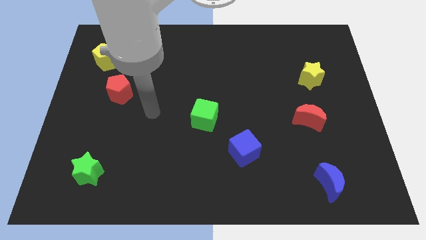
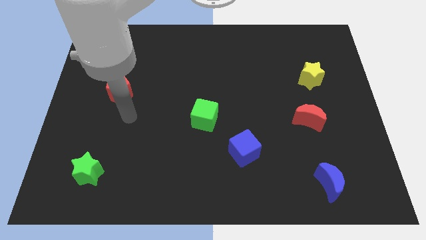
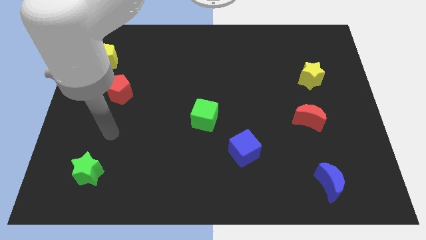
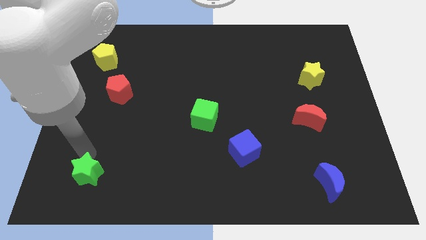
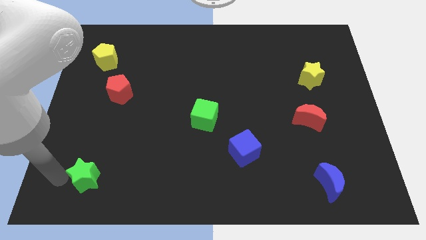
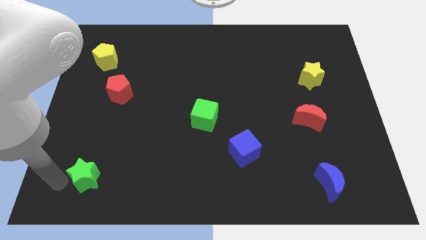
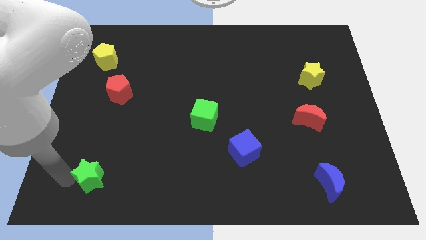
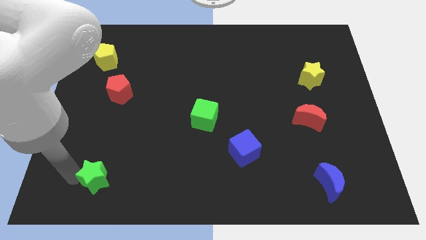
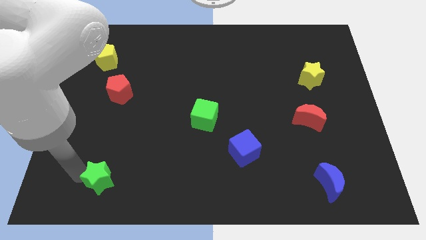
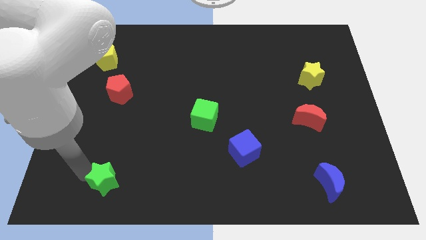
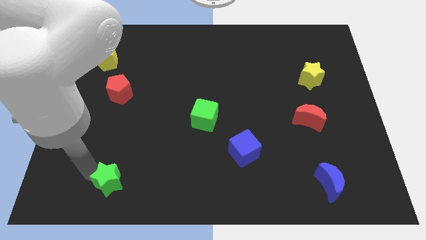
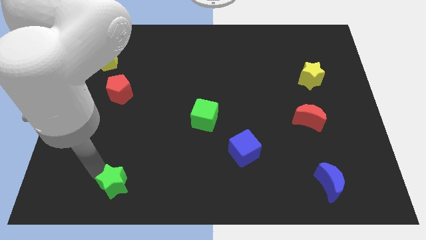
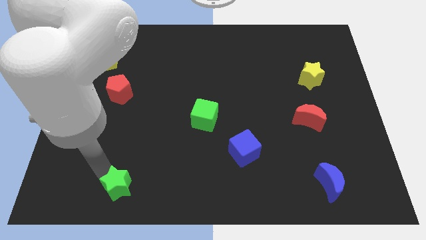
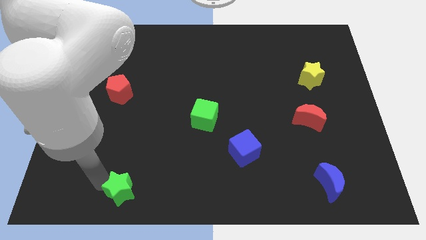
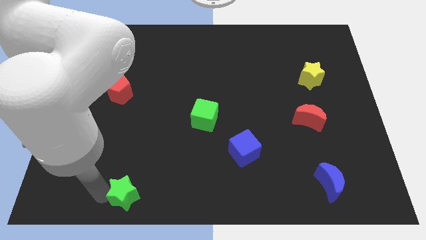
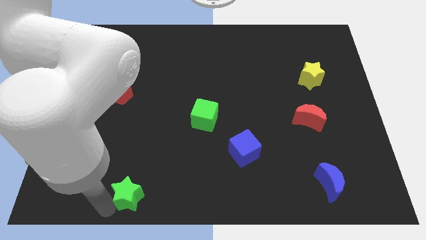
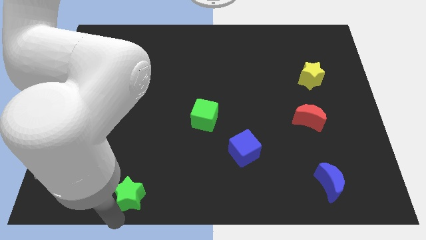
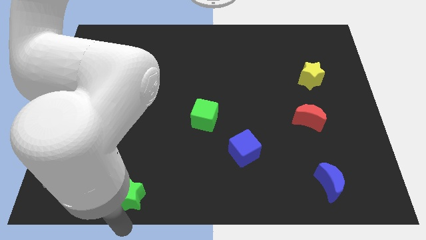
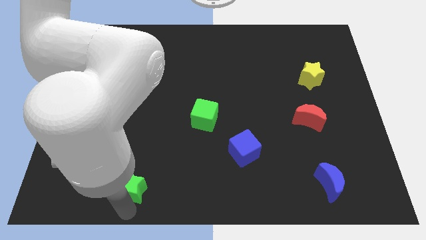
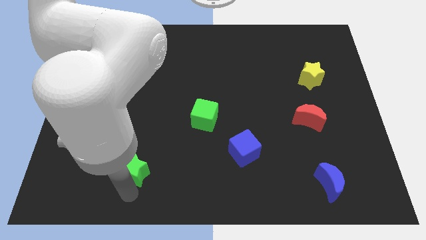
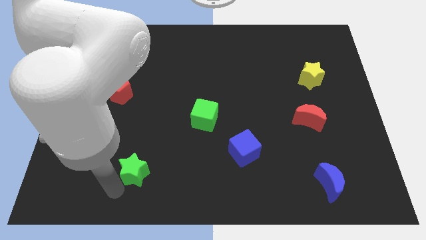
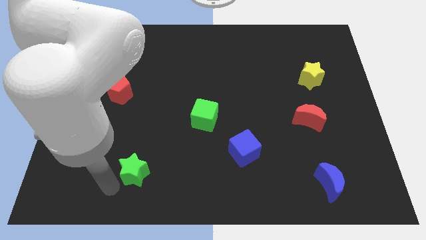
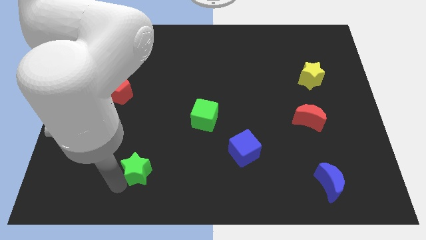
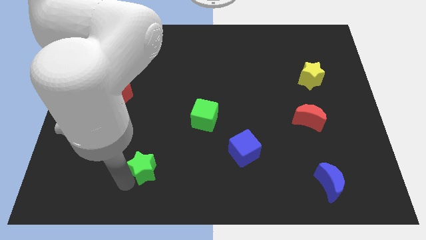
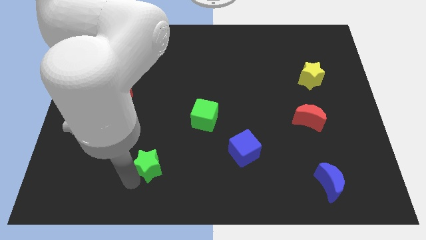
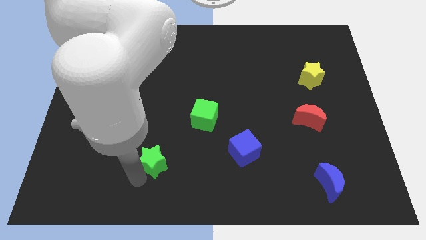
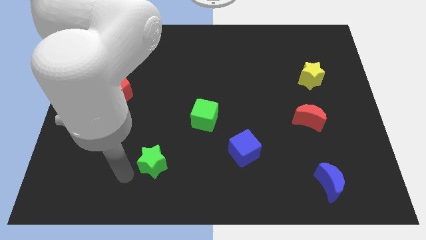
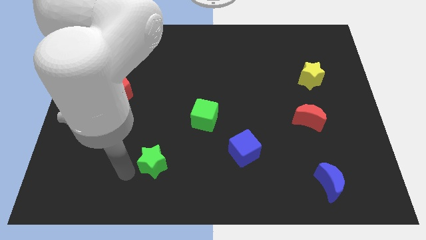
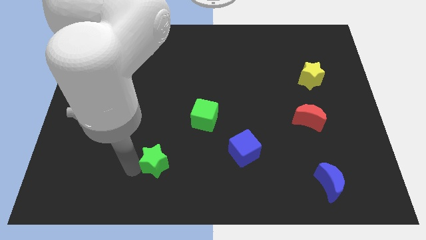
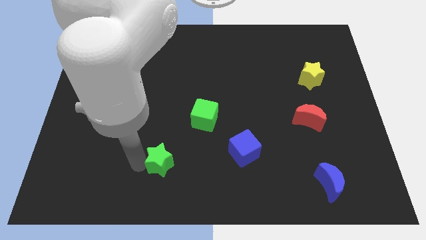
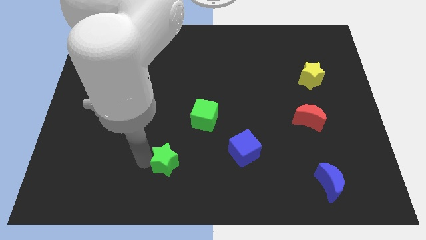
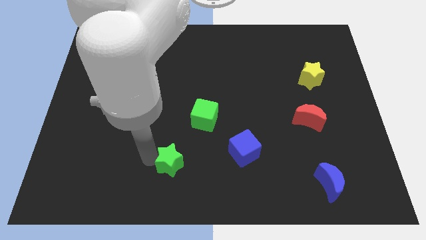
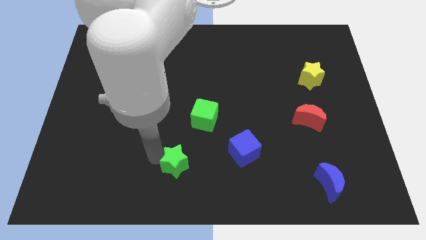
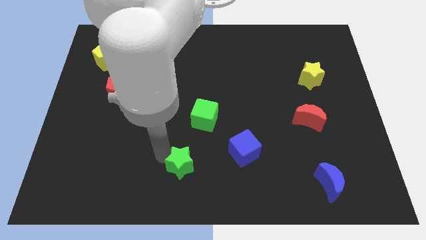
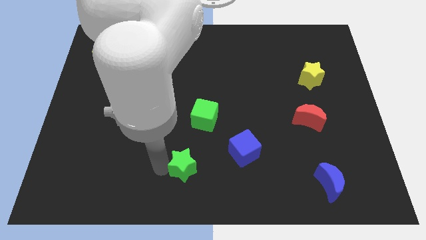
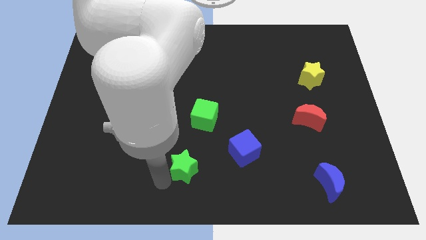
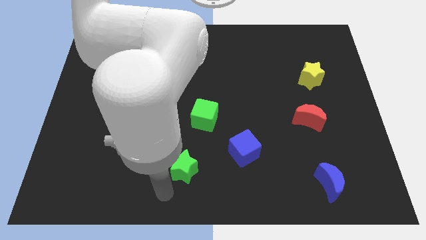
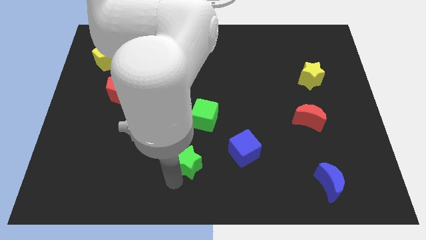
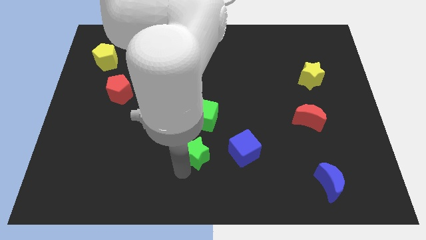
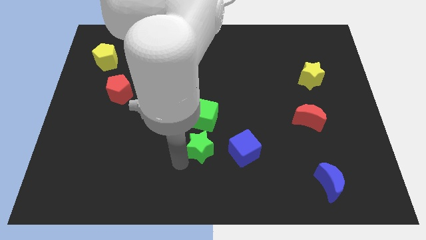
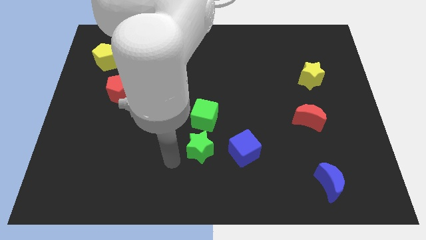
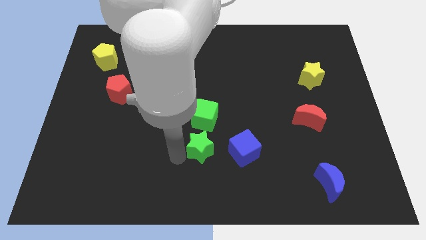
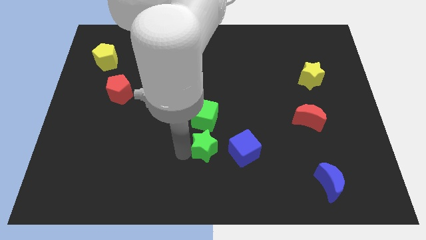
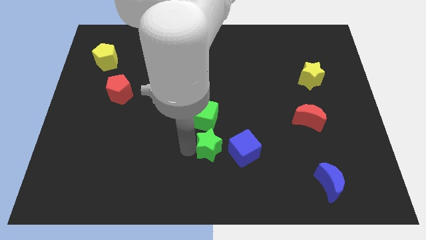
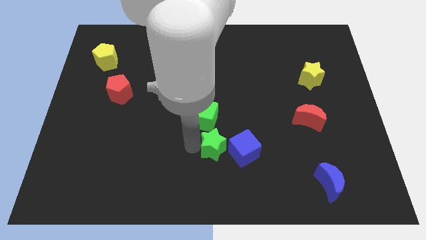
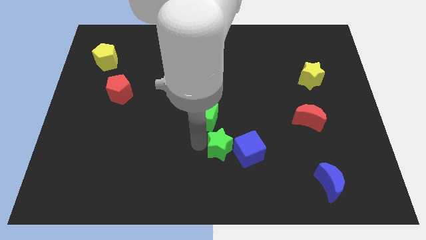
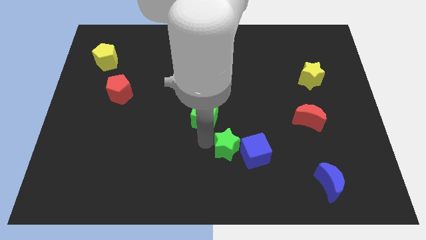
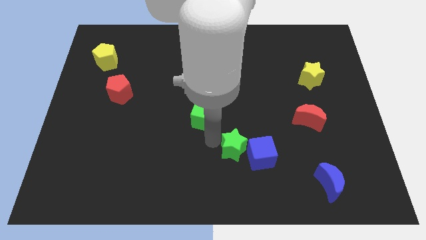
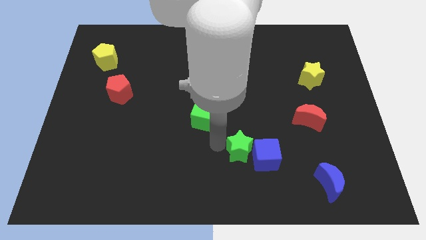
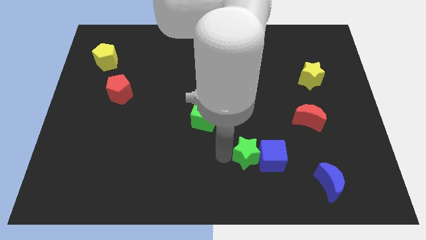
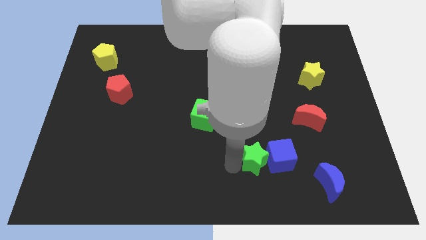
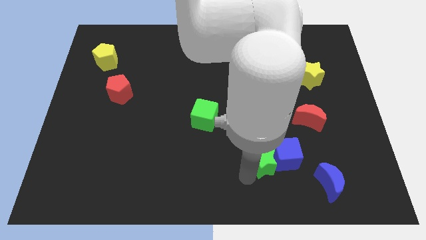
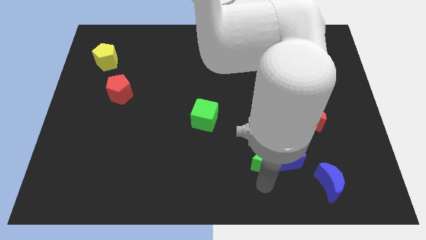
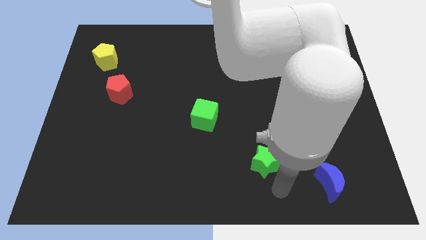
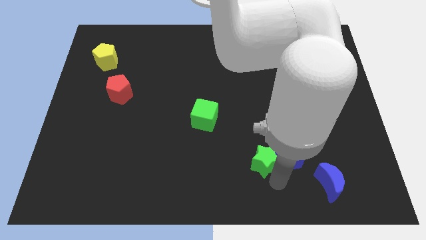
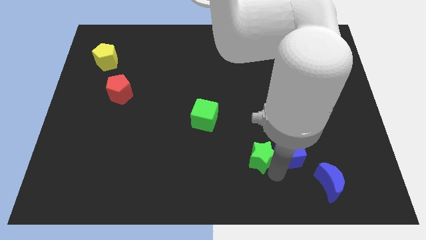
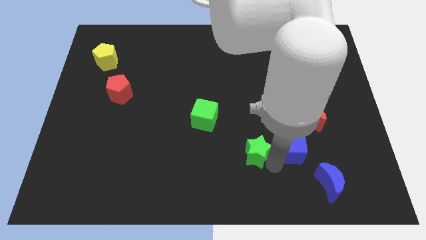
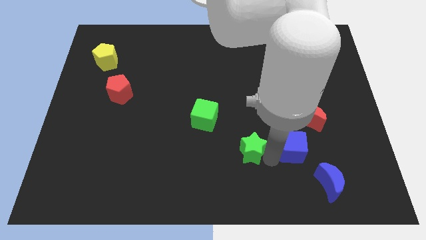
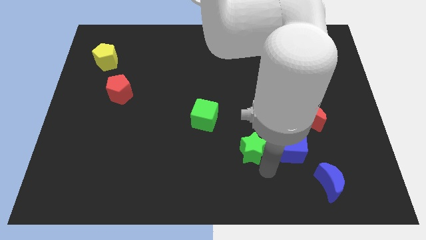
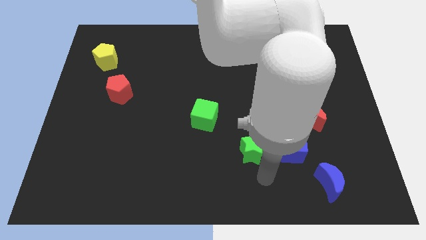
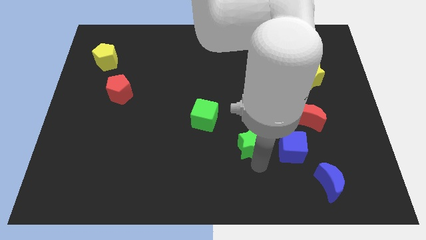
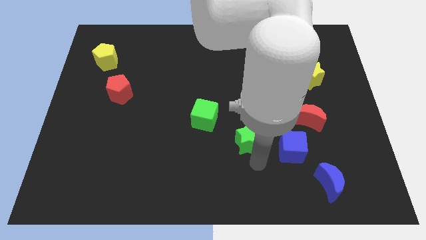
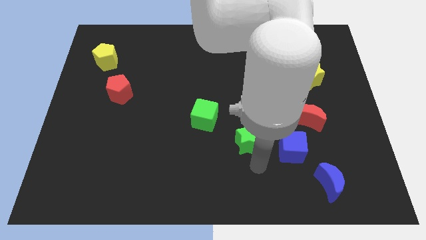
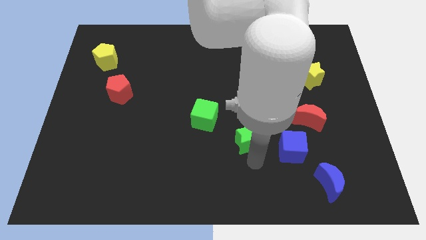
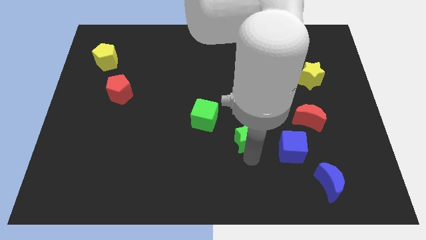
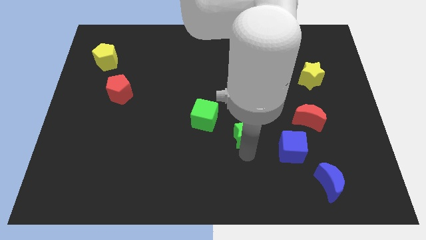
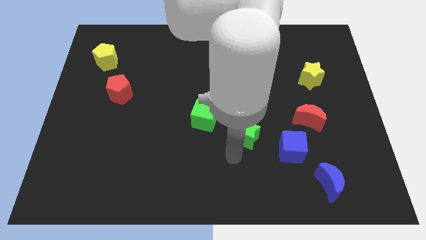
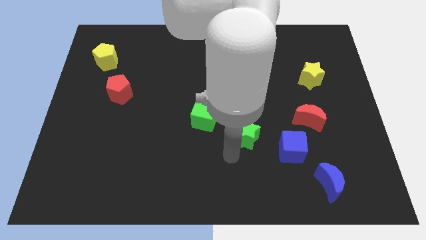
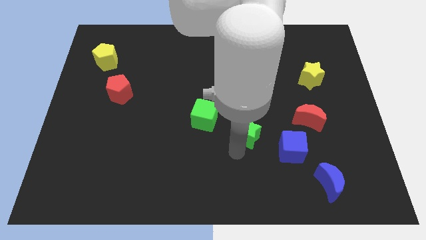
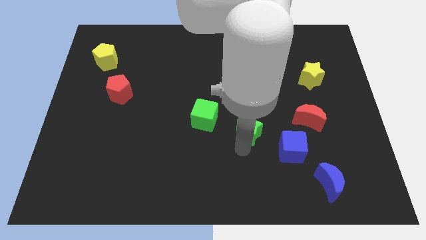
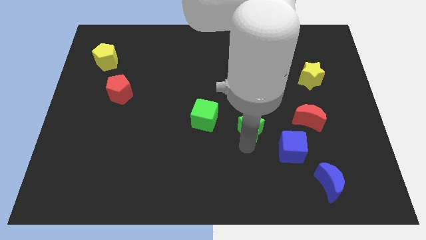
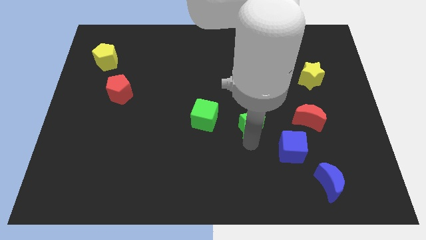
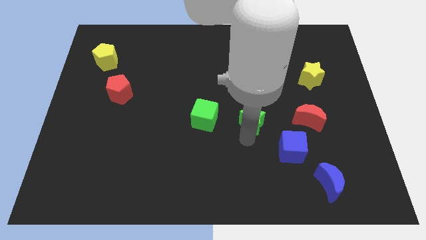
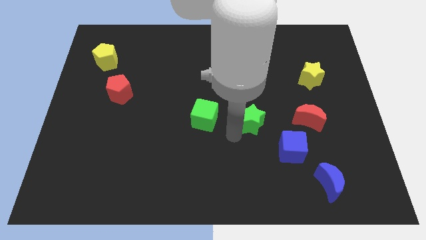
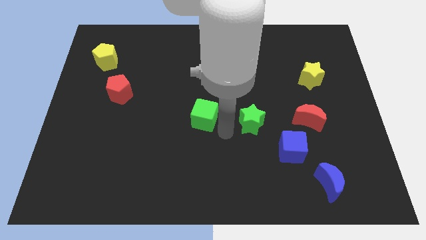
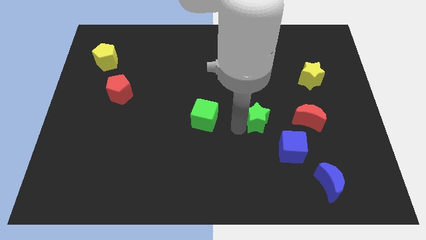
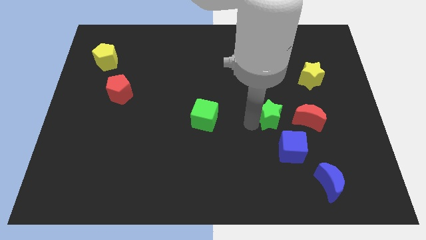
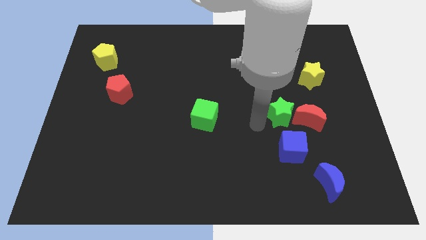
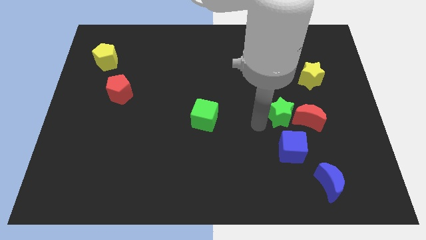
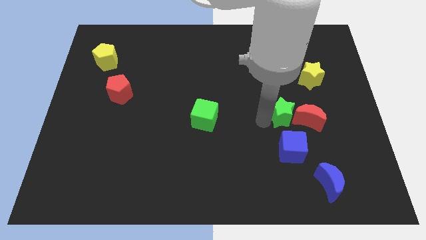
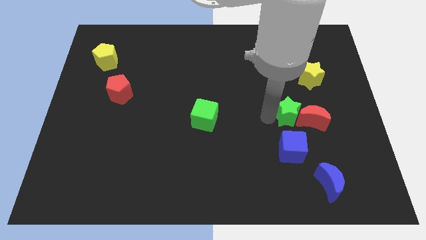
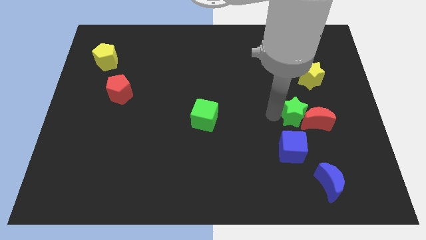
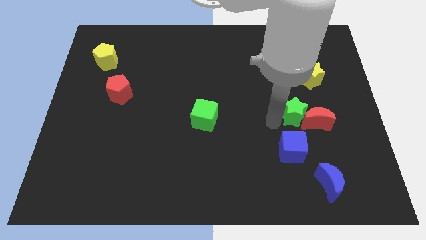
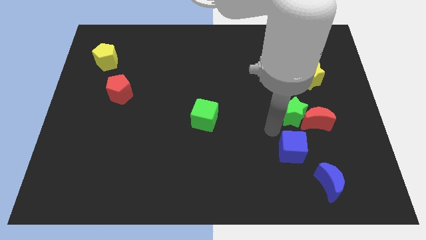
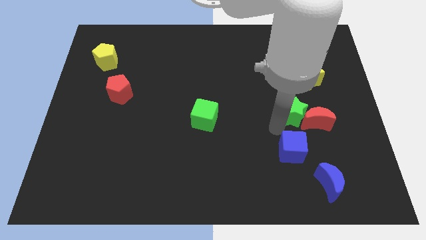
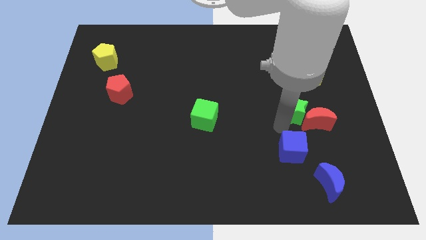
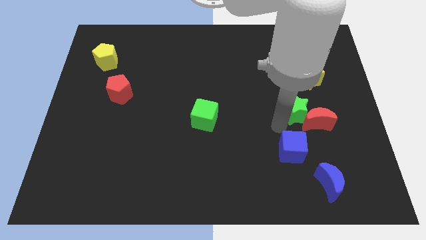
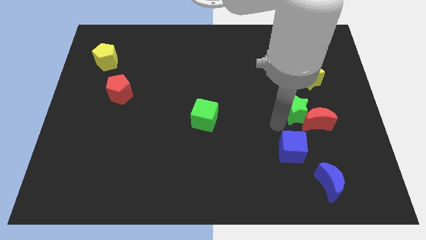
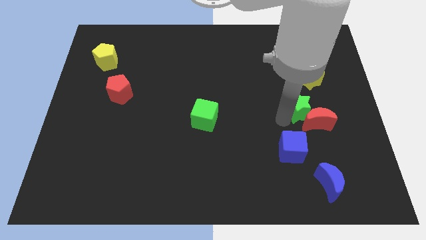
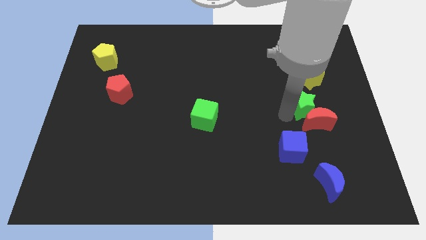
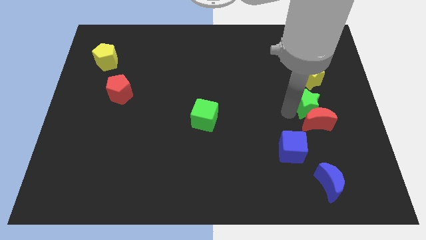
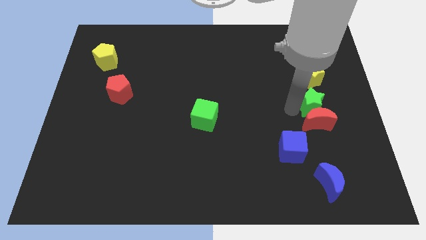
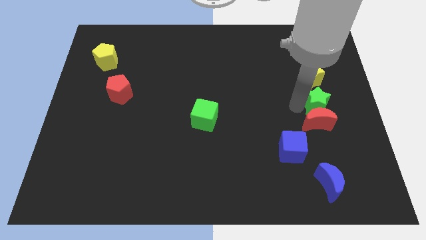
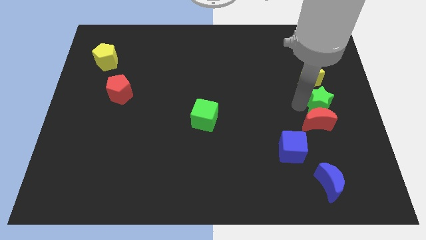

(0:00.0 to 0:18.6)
slide the green star to the right side
